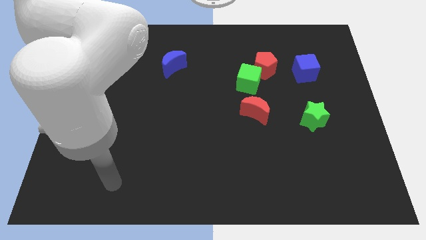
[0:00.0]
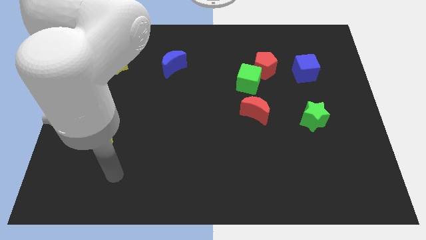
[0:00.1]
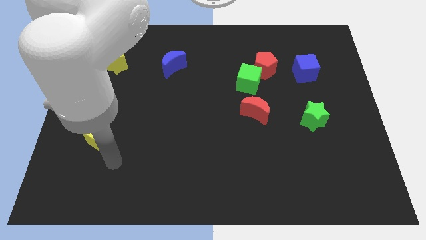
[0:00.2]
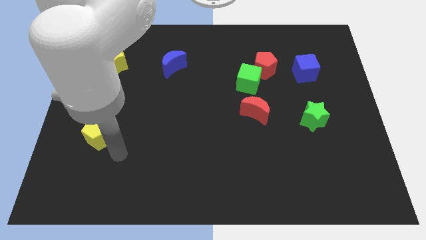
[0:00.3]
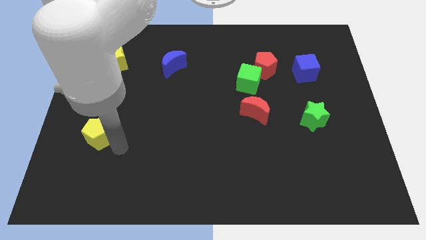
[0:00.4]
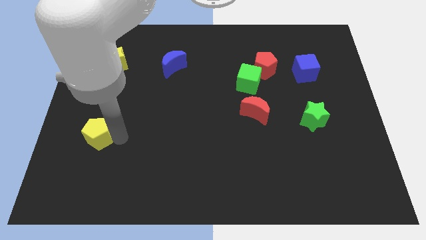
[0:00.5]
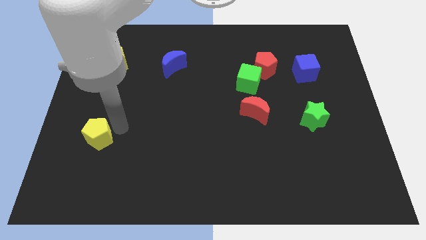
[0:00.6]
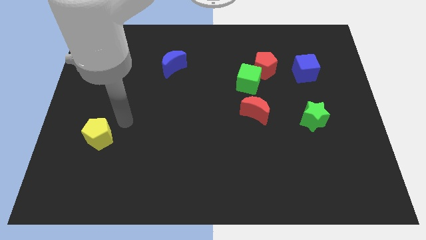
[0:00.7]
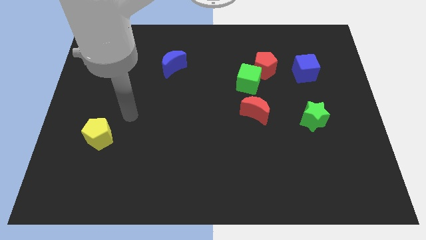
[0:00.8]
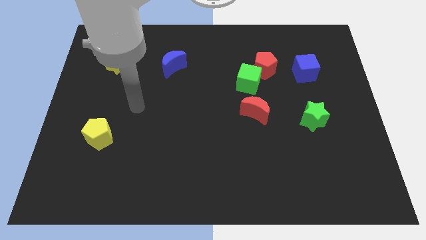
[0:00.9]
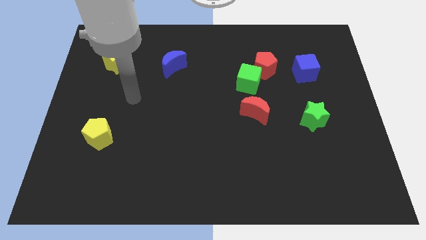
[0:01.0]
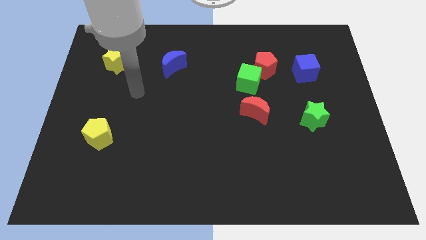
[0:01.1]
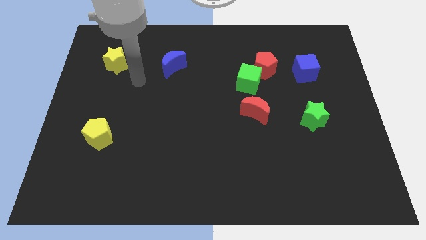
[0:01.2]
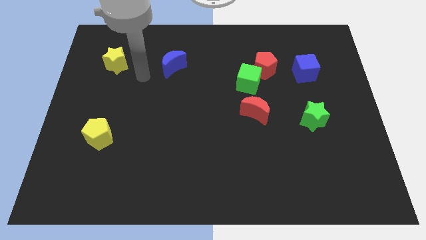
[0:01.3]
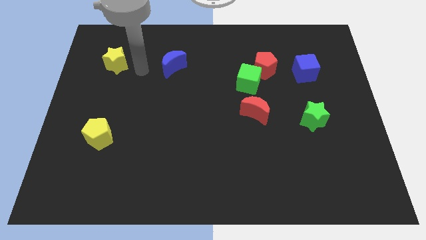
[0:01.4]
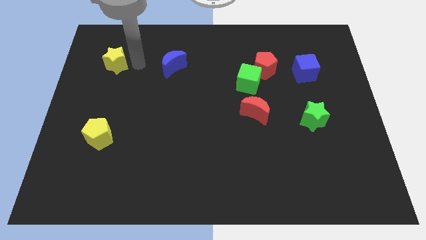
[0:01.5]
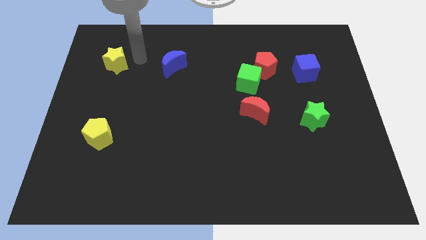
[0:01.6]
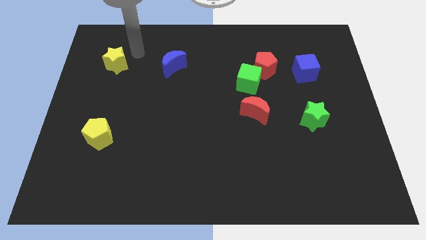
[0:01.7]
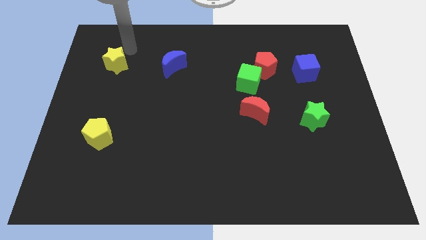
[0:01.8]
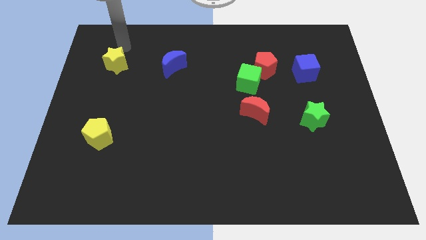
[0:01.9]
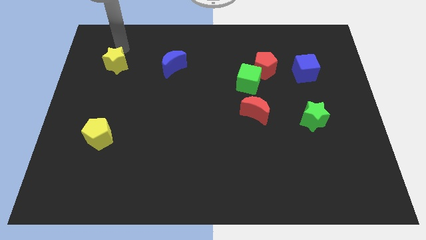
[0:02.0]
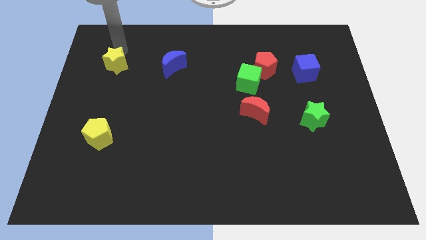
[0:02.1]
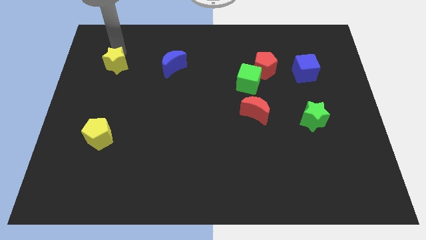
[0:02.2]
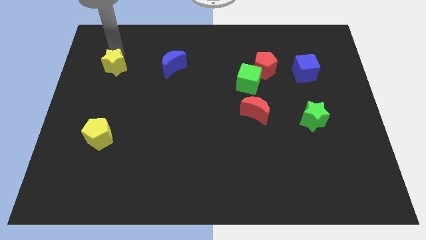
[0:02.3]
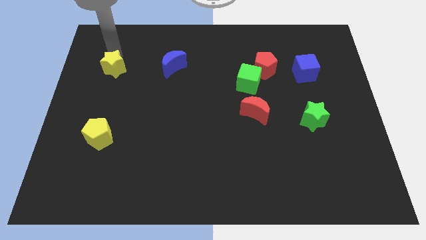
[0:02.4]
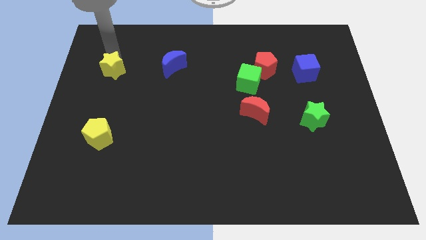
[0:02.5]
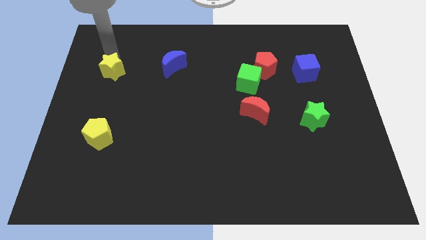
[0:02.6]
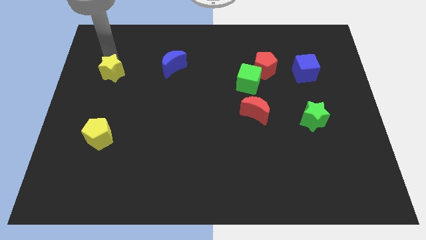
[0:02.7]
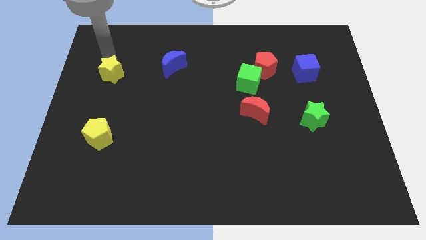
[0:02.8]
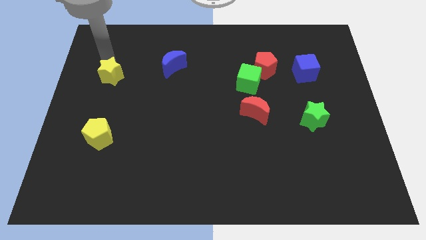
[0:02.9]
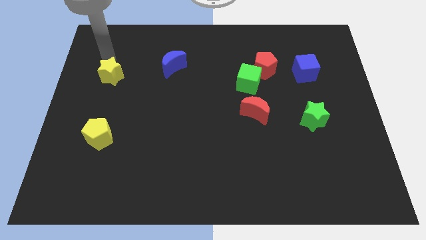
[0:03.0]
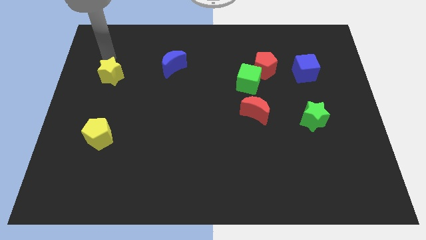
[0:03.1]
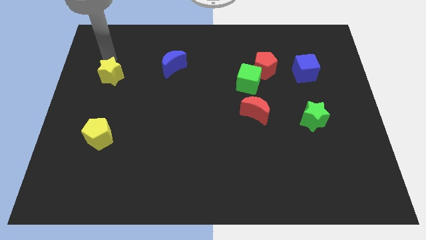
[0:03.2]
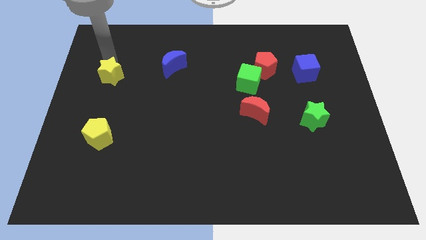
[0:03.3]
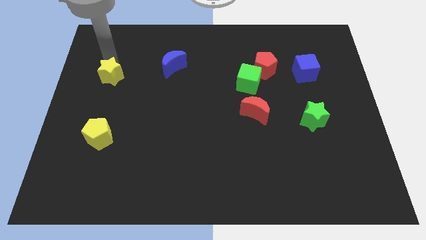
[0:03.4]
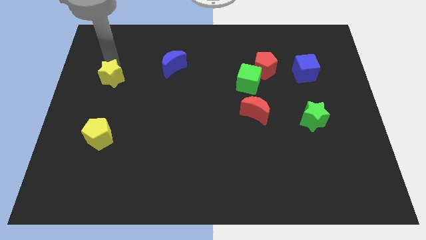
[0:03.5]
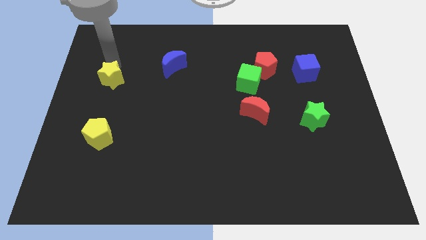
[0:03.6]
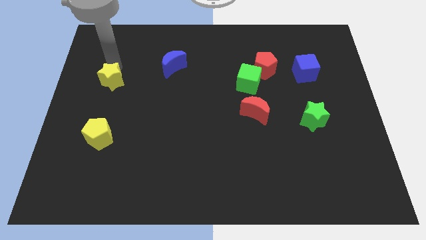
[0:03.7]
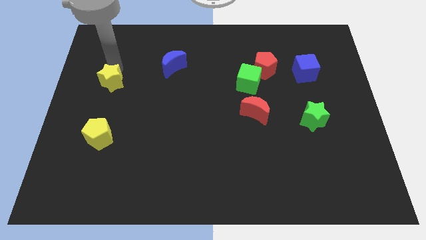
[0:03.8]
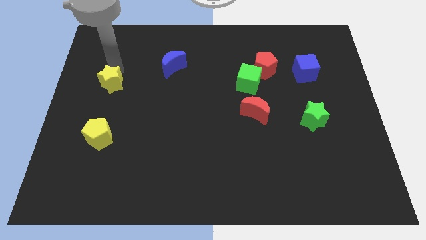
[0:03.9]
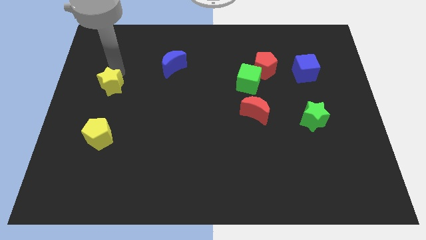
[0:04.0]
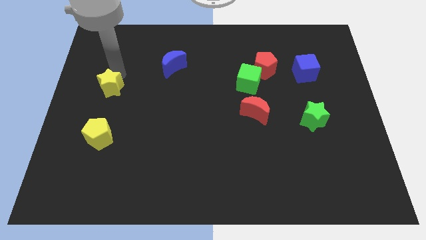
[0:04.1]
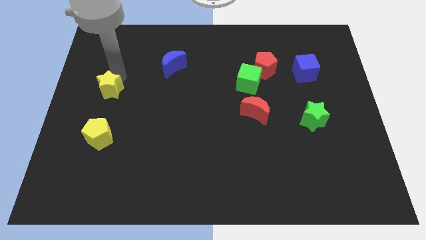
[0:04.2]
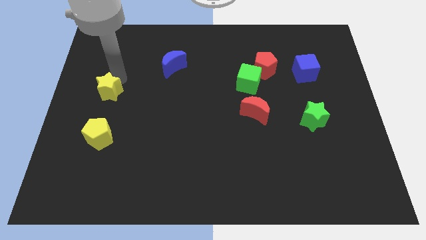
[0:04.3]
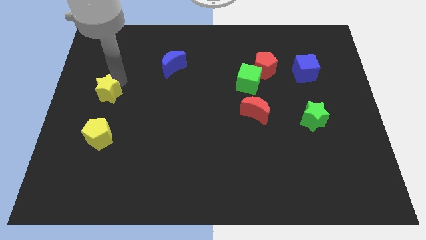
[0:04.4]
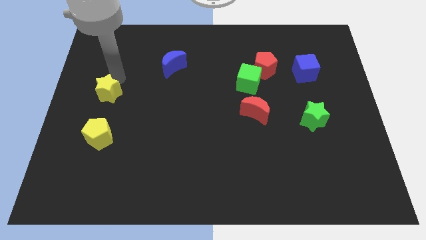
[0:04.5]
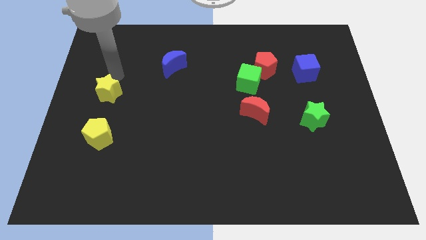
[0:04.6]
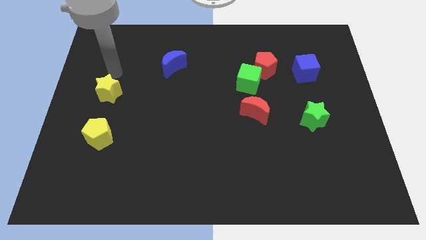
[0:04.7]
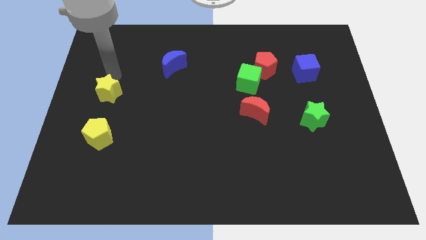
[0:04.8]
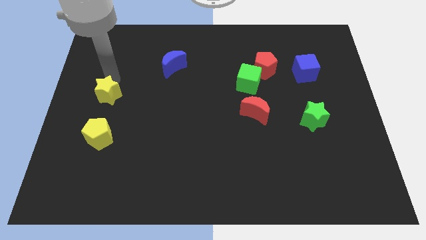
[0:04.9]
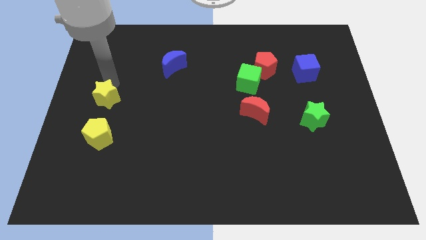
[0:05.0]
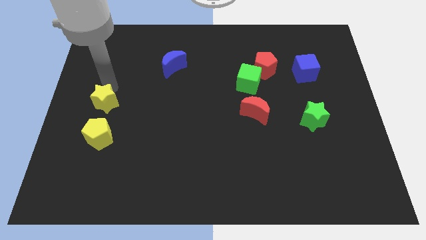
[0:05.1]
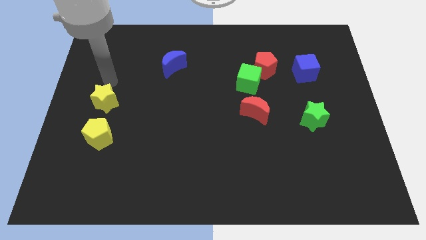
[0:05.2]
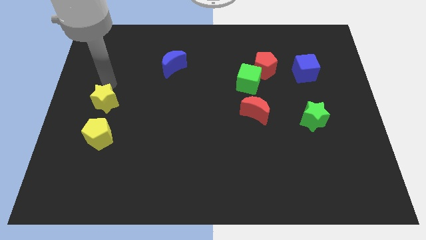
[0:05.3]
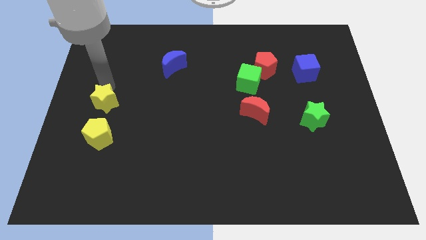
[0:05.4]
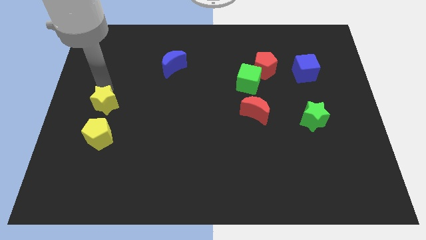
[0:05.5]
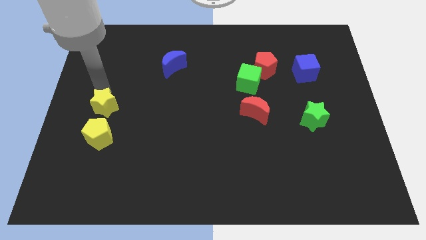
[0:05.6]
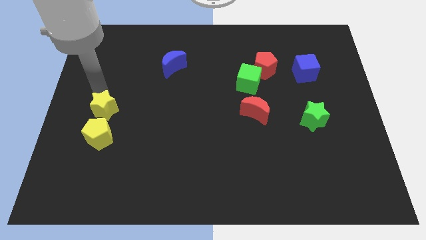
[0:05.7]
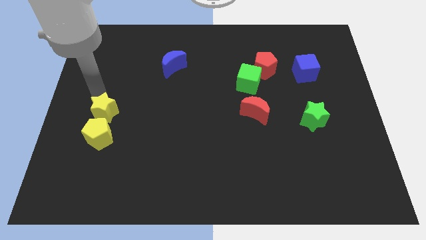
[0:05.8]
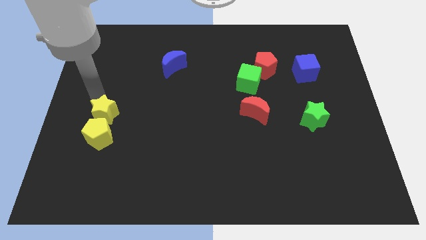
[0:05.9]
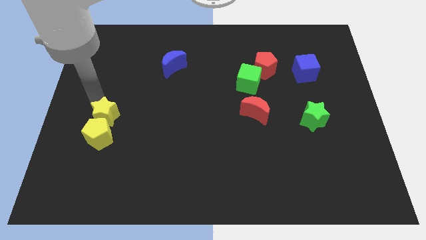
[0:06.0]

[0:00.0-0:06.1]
move the yellow star to the yellow pentagon
